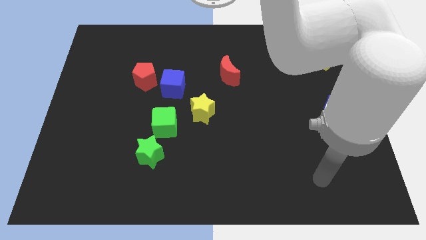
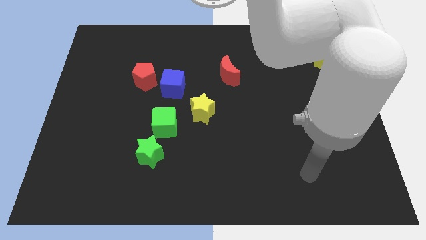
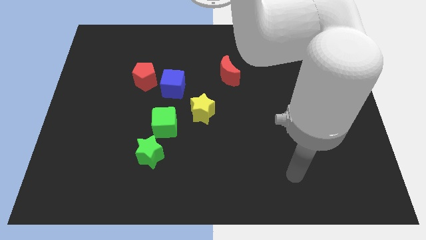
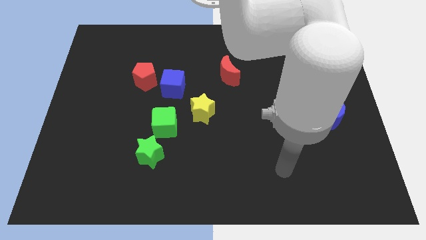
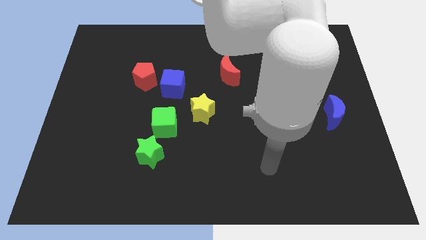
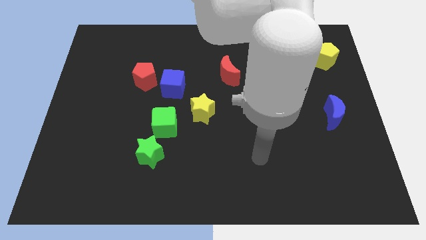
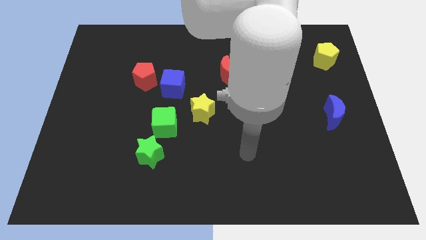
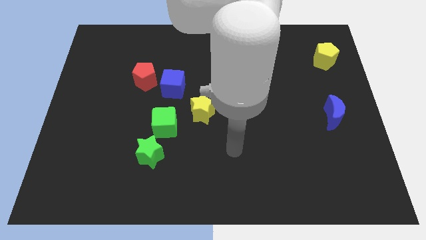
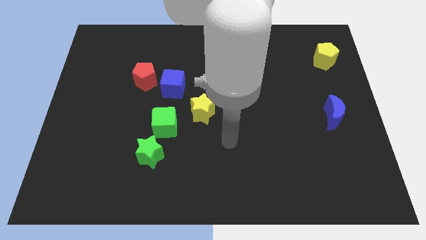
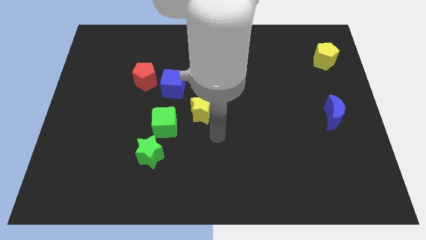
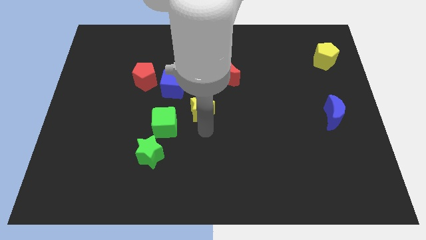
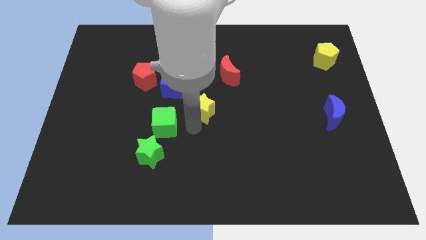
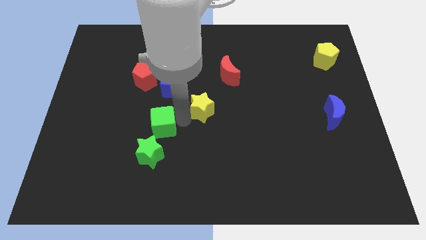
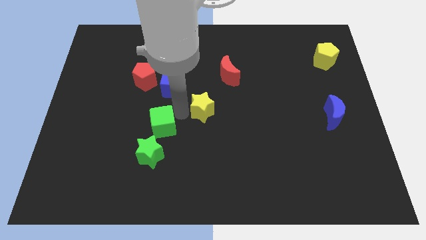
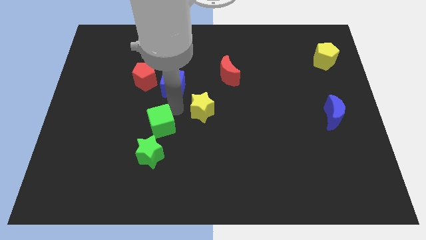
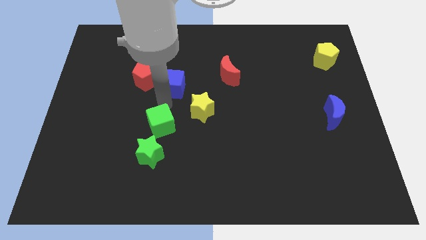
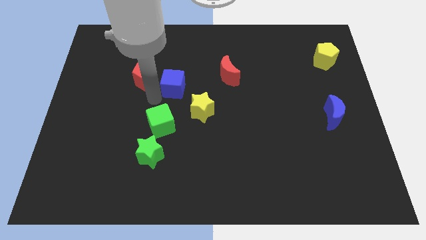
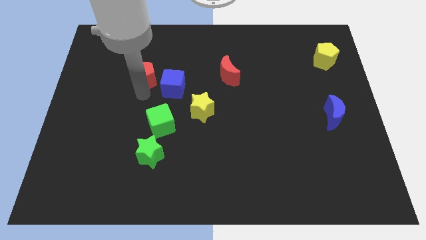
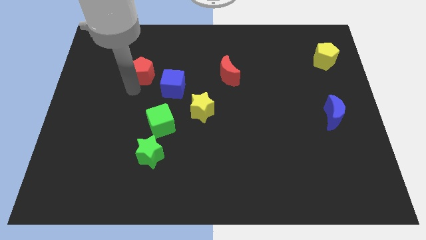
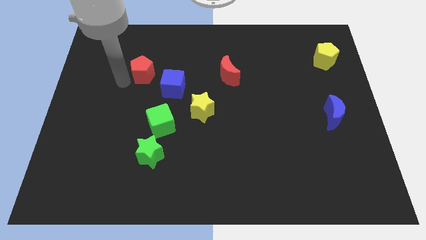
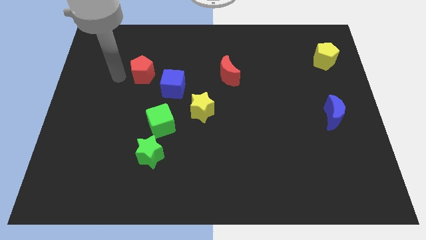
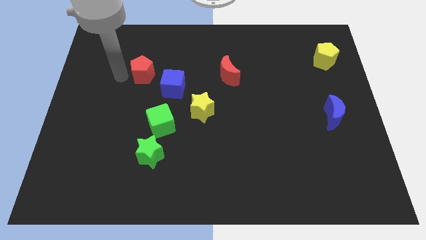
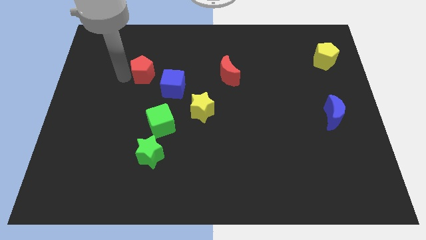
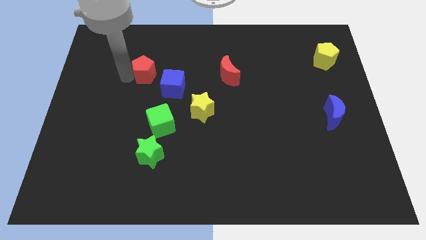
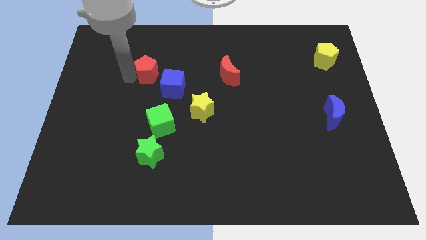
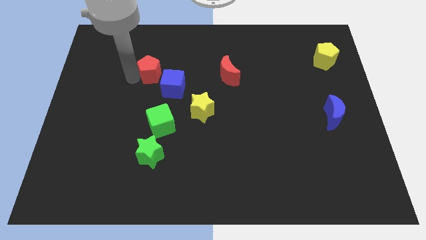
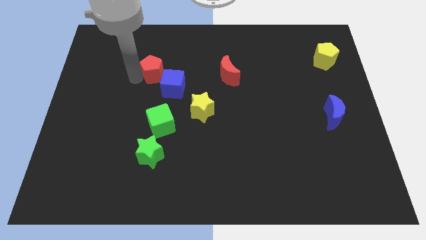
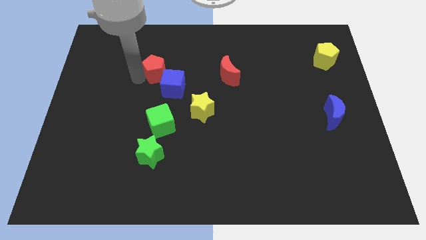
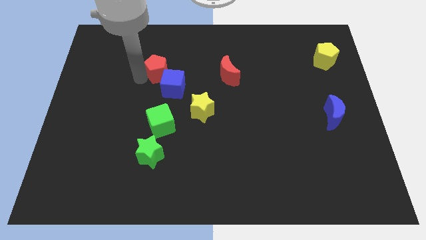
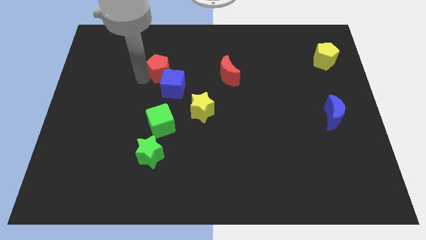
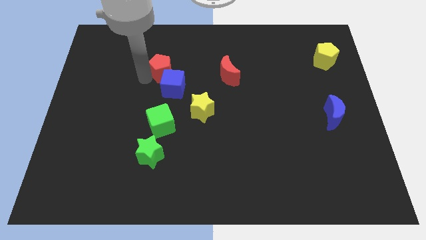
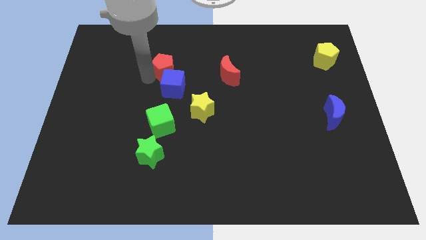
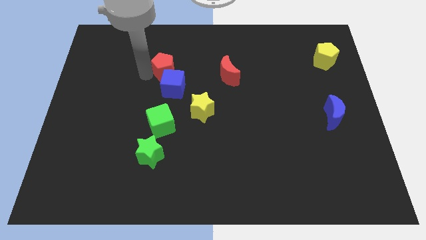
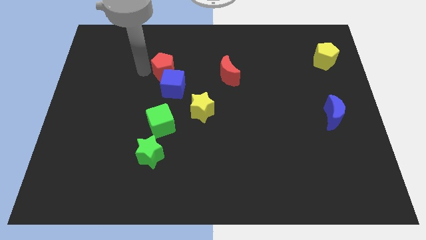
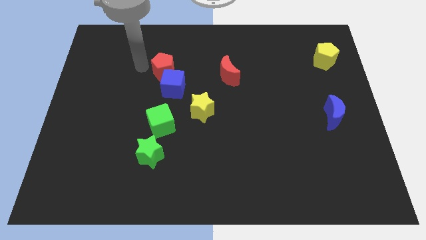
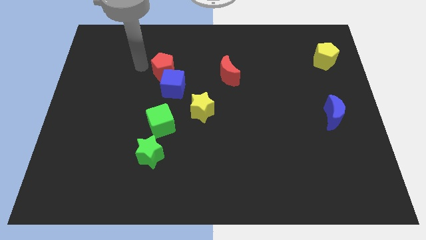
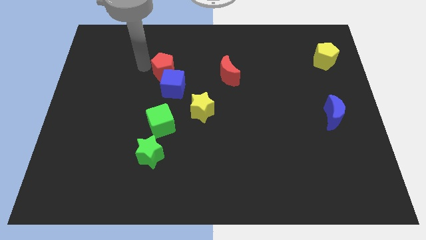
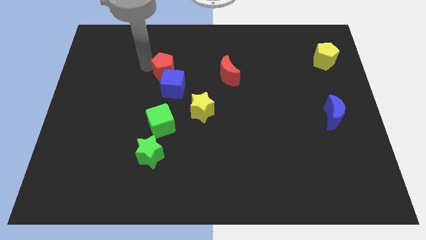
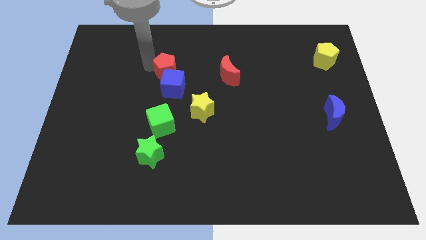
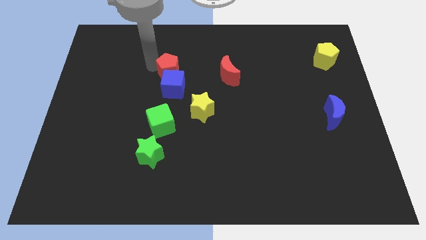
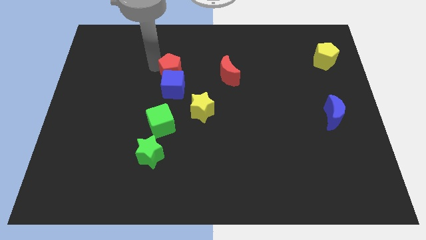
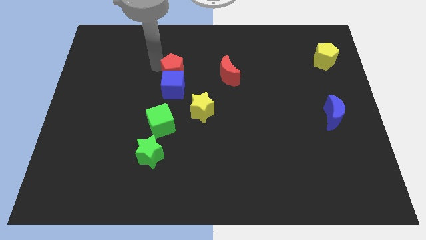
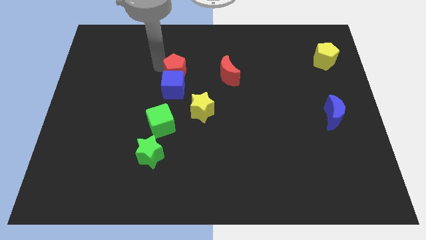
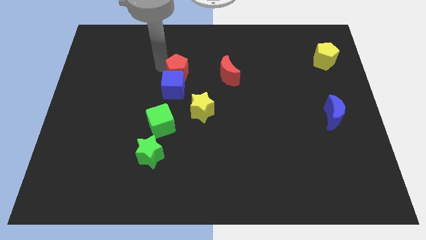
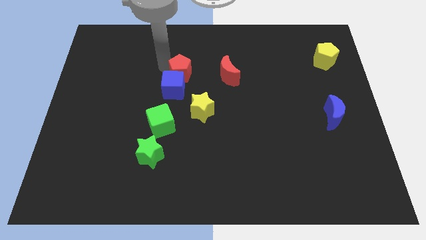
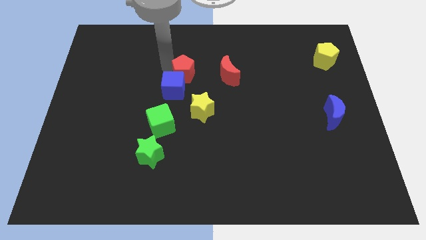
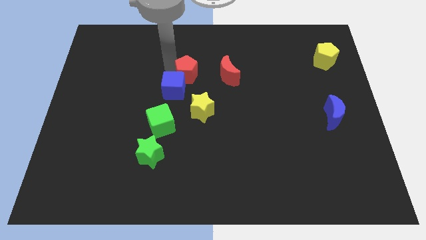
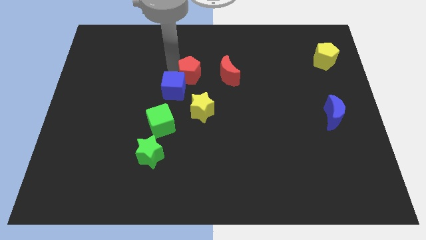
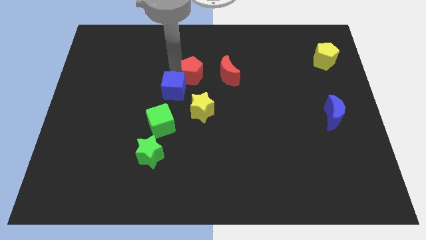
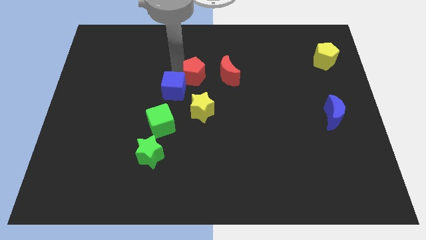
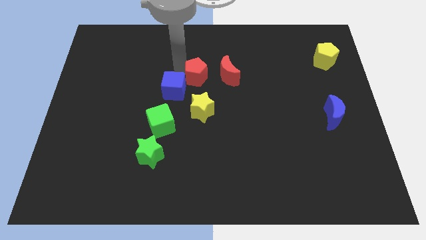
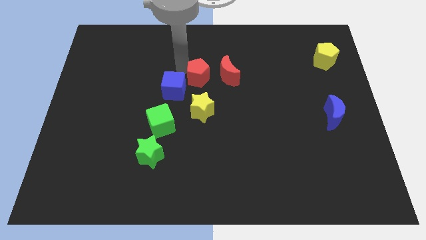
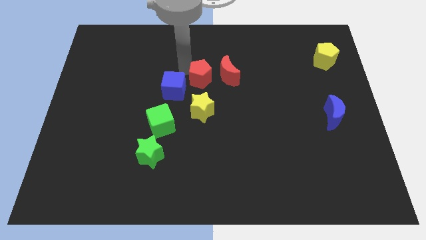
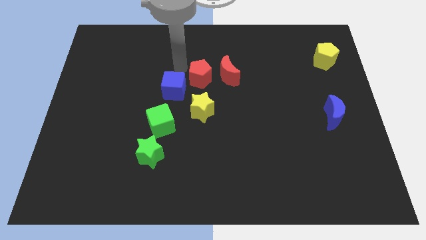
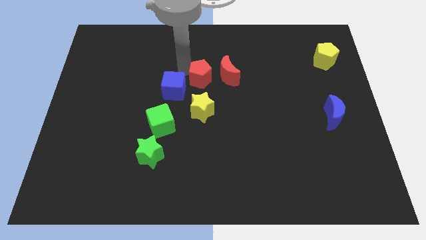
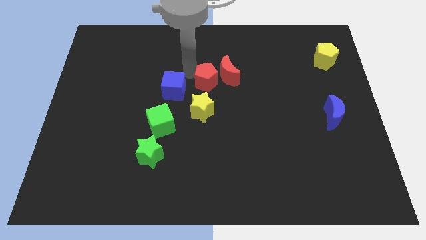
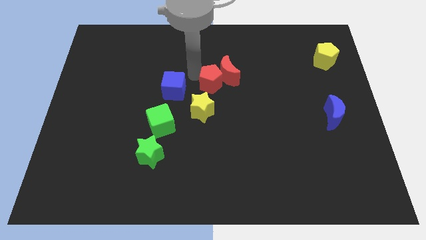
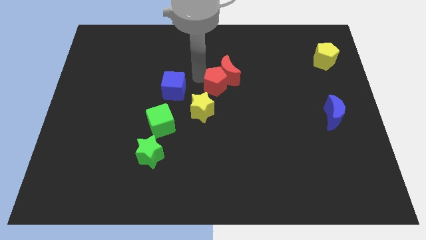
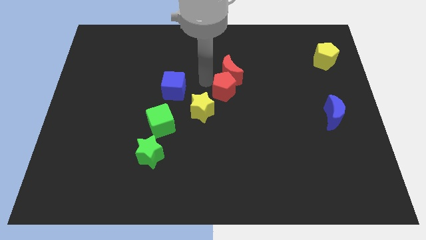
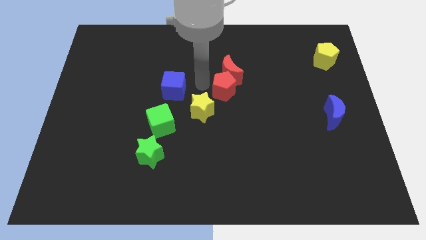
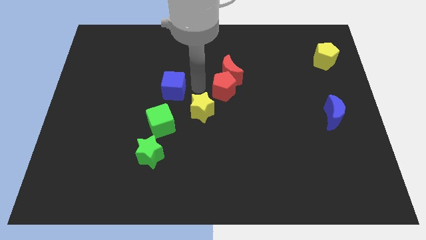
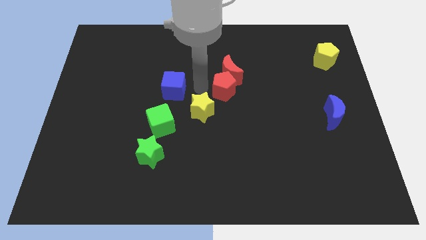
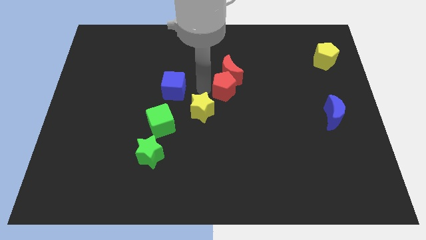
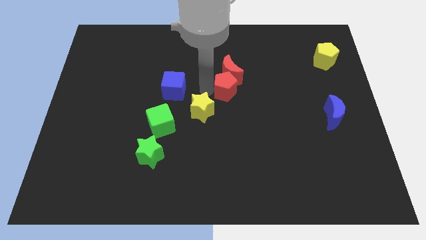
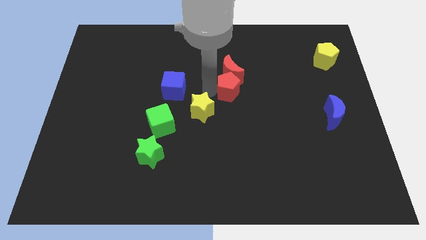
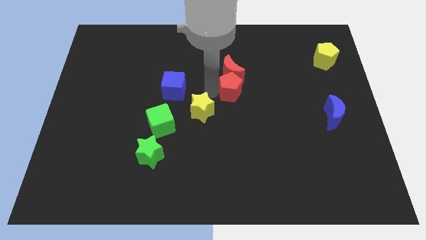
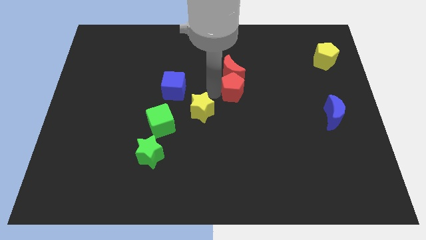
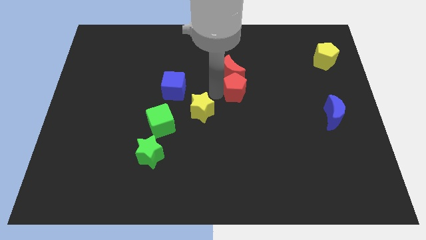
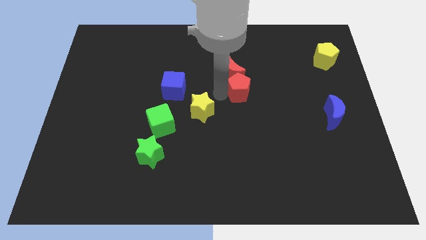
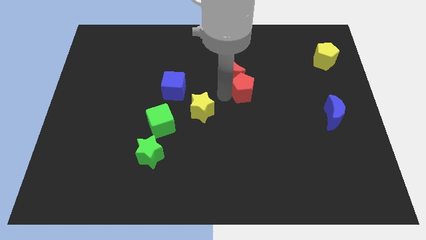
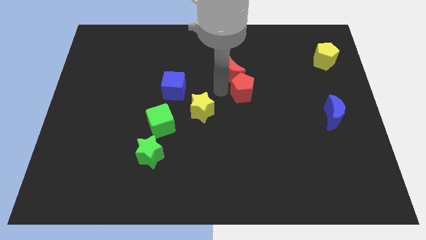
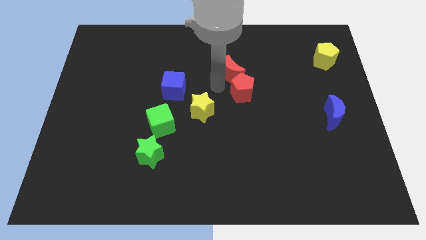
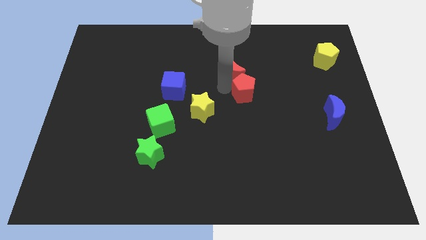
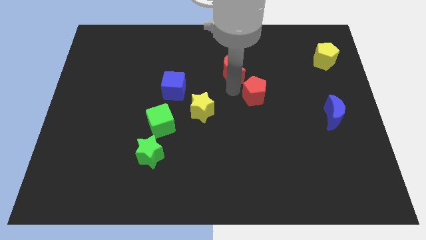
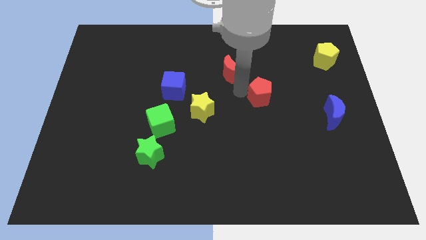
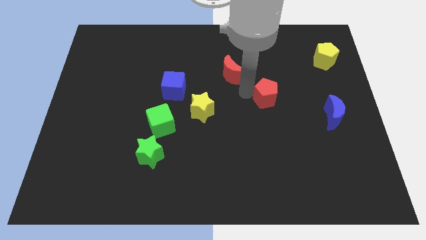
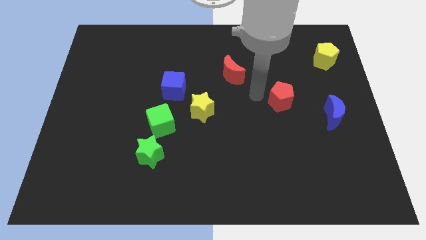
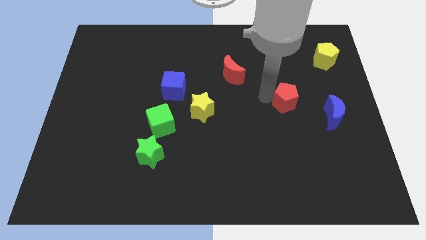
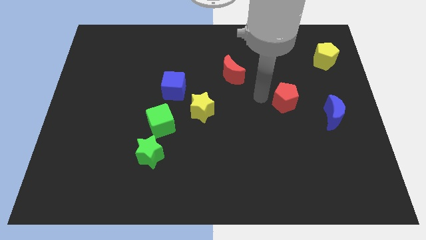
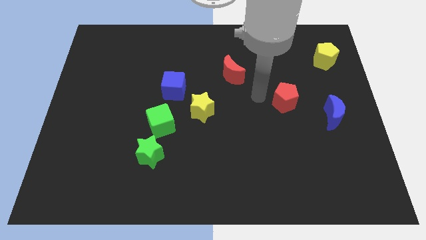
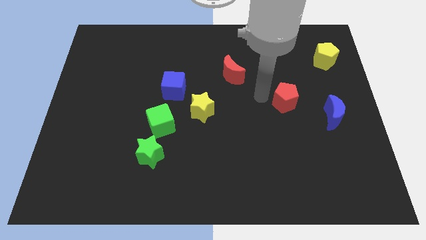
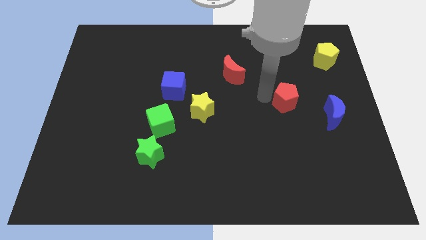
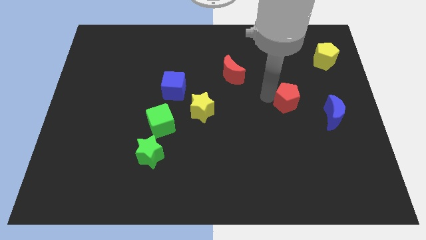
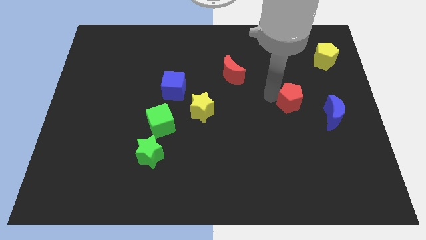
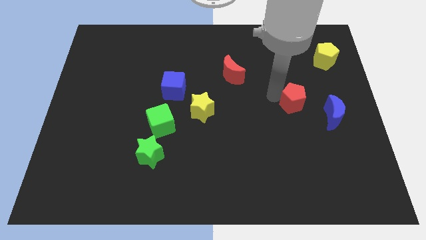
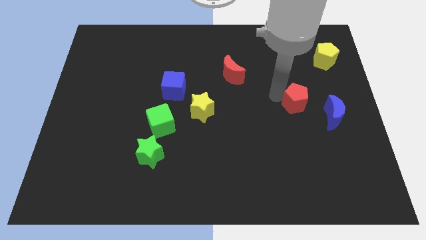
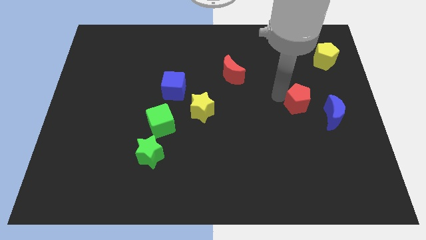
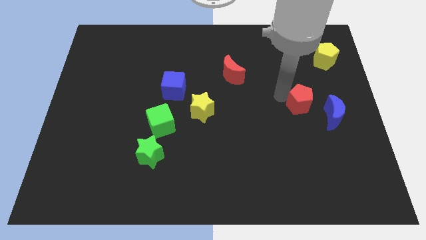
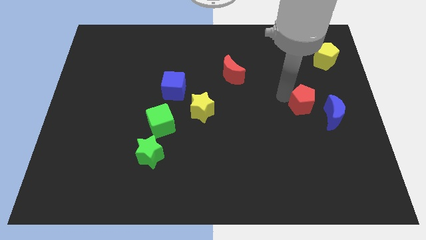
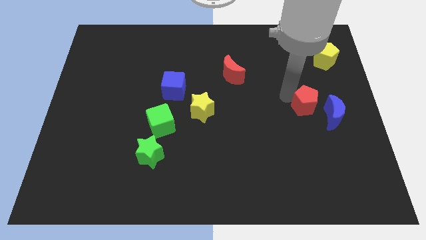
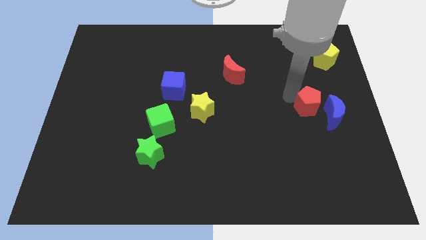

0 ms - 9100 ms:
slide the red pentagon towards the blue moon
